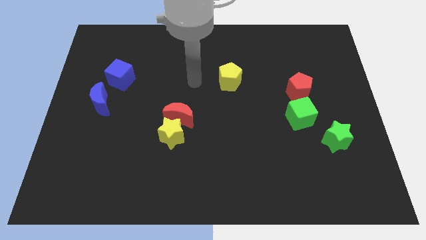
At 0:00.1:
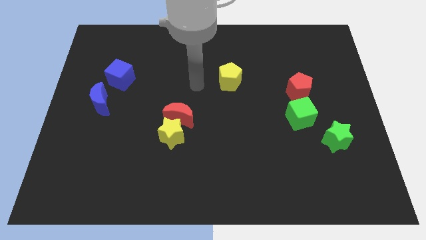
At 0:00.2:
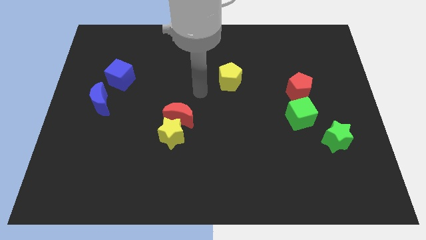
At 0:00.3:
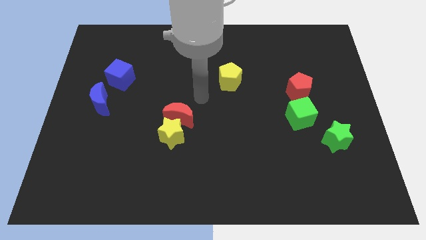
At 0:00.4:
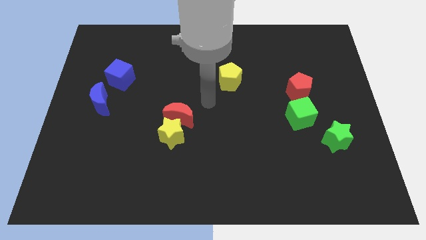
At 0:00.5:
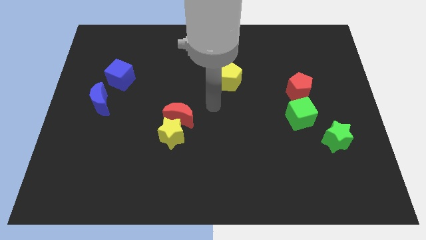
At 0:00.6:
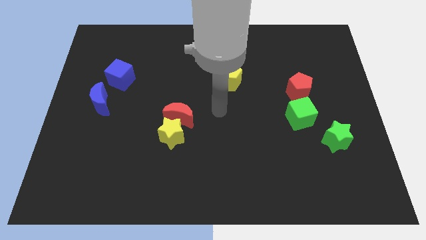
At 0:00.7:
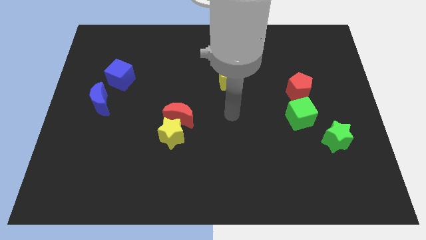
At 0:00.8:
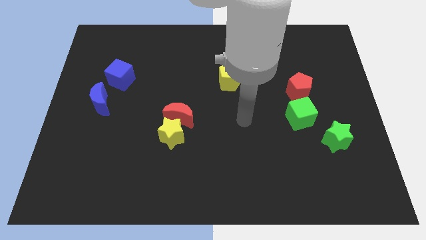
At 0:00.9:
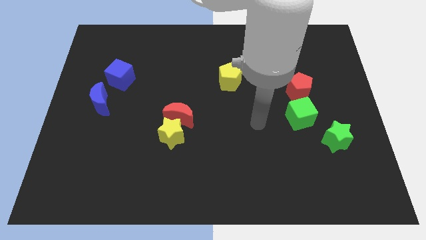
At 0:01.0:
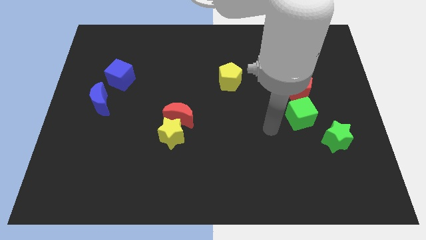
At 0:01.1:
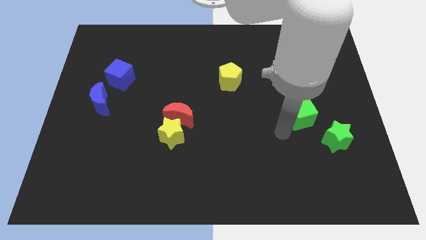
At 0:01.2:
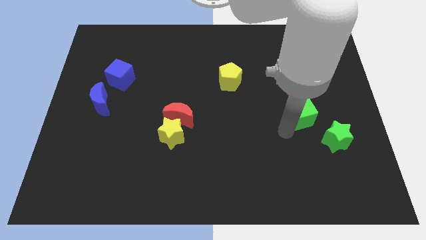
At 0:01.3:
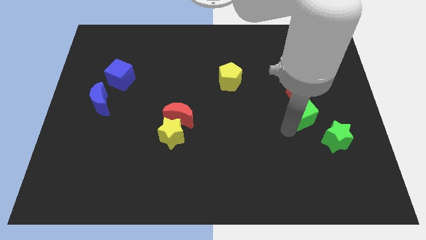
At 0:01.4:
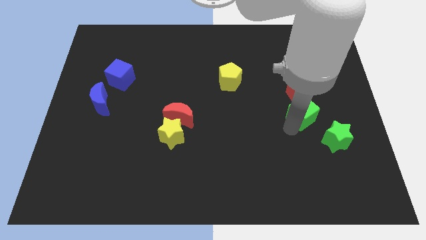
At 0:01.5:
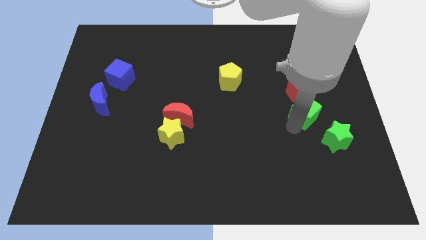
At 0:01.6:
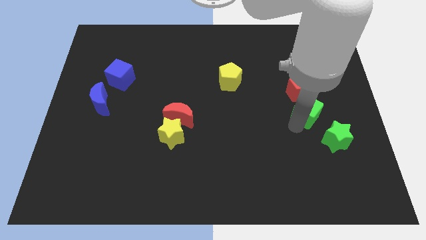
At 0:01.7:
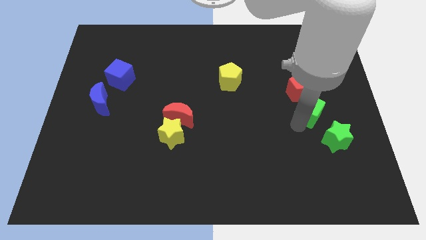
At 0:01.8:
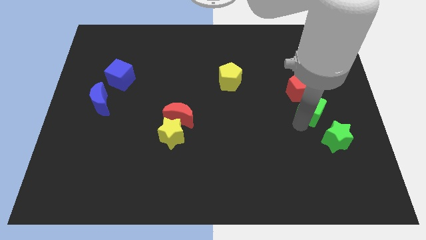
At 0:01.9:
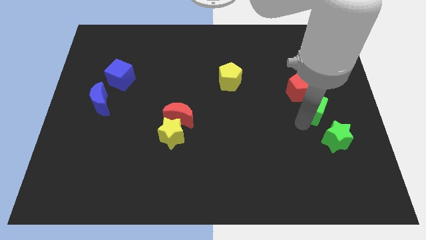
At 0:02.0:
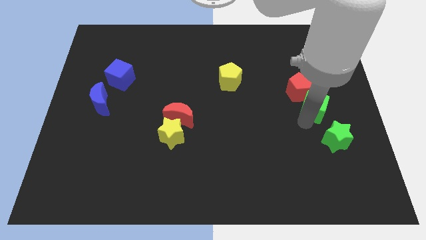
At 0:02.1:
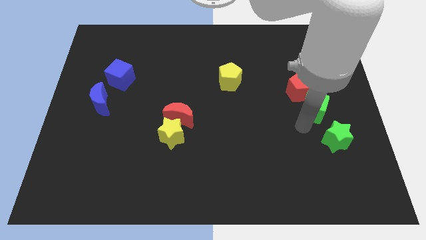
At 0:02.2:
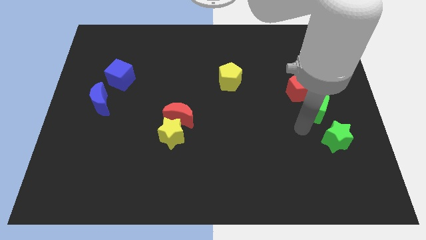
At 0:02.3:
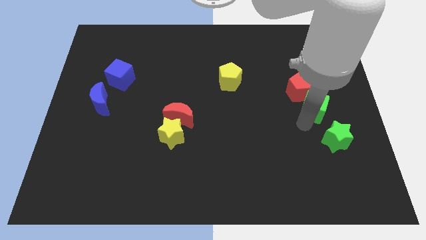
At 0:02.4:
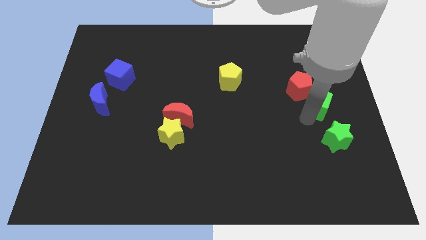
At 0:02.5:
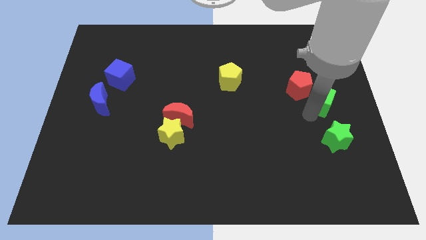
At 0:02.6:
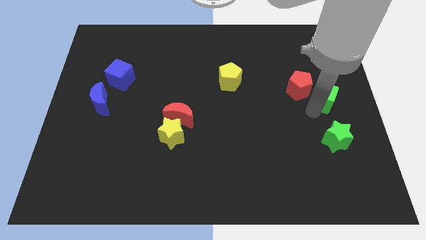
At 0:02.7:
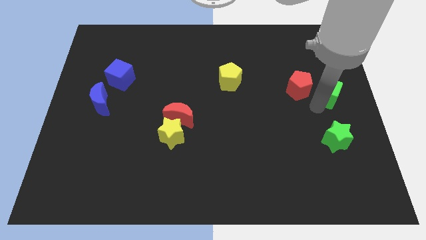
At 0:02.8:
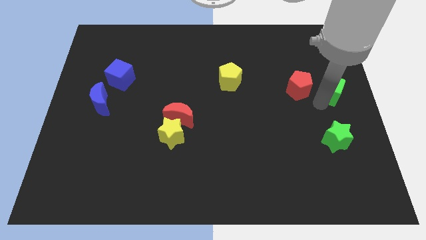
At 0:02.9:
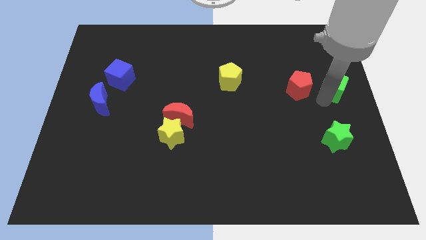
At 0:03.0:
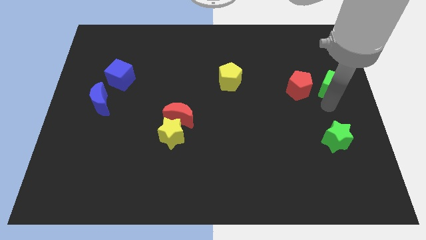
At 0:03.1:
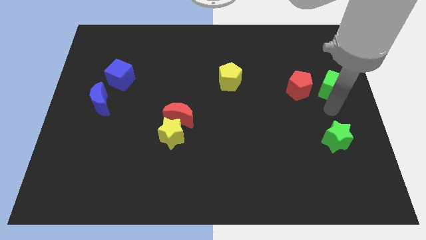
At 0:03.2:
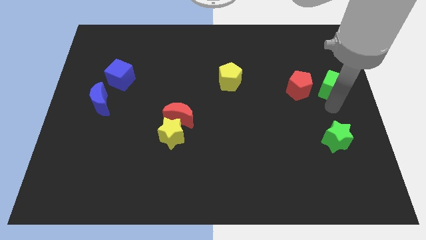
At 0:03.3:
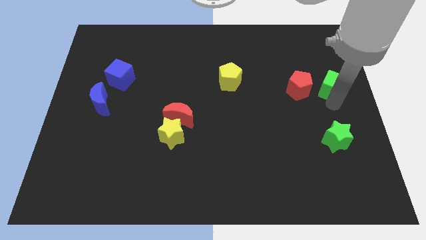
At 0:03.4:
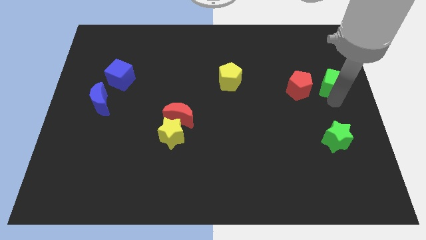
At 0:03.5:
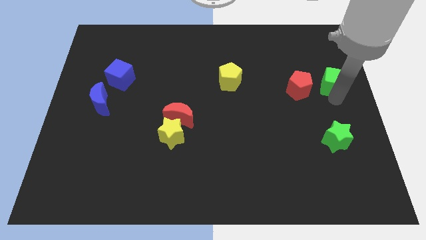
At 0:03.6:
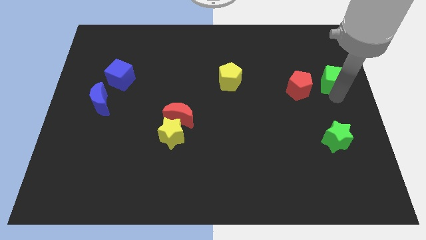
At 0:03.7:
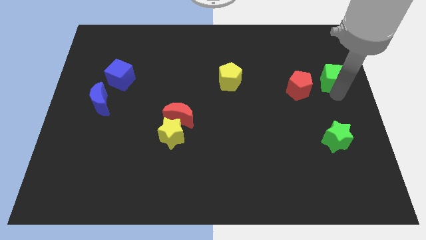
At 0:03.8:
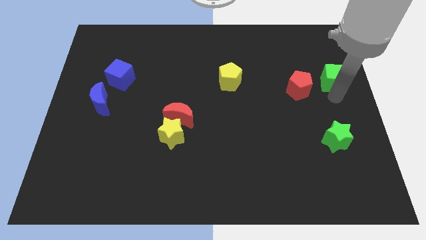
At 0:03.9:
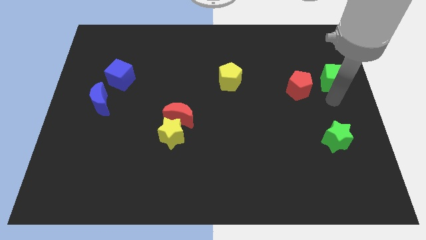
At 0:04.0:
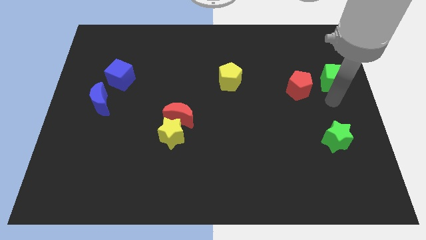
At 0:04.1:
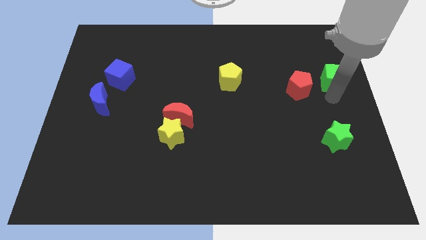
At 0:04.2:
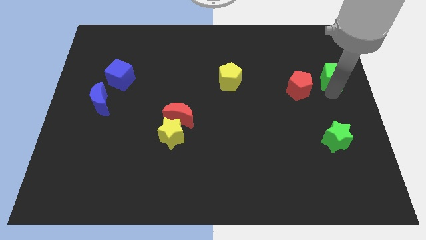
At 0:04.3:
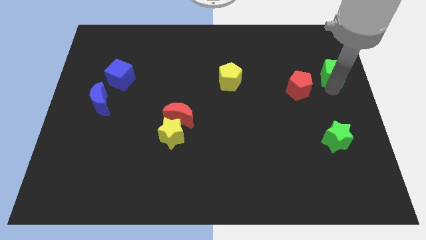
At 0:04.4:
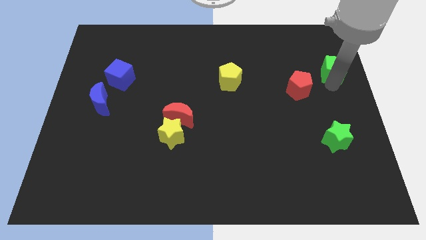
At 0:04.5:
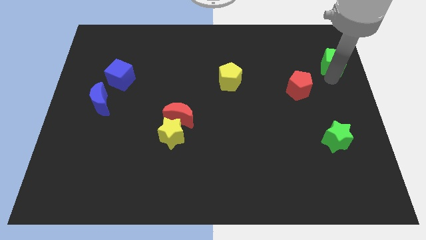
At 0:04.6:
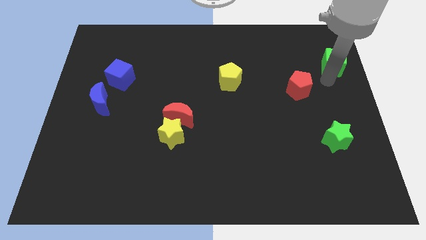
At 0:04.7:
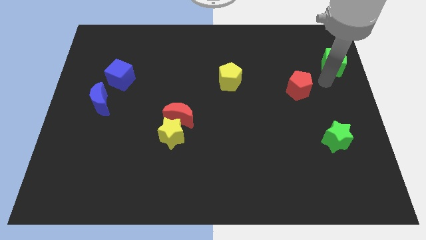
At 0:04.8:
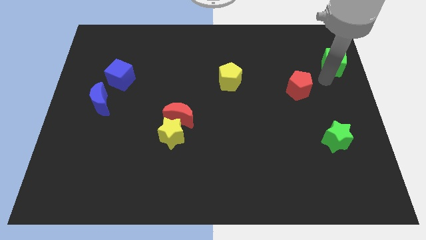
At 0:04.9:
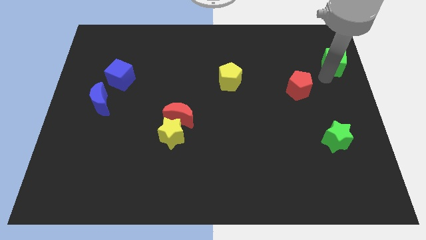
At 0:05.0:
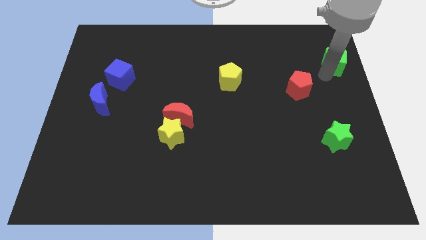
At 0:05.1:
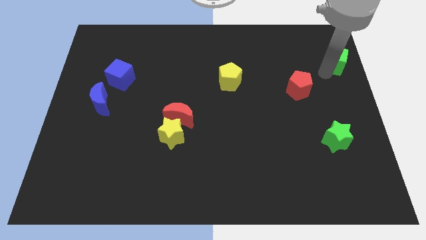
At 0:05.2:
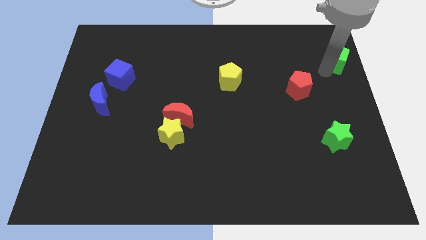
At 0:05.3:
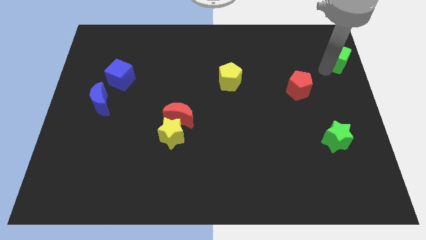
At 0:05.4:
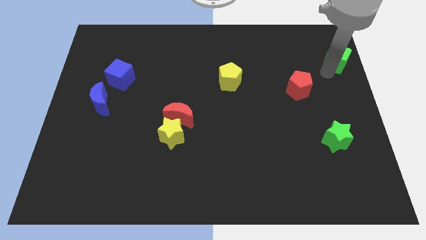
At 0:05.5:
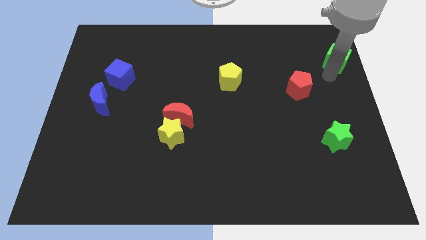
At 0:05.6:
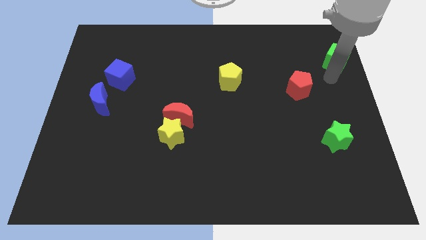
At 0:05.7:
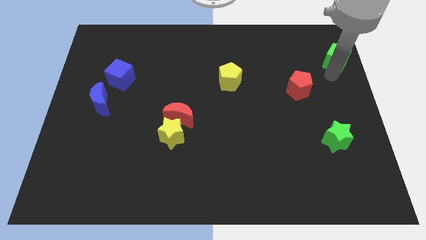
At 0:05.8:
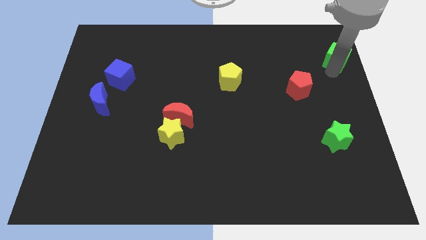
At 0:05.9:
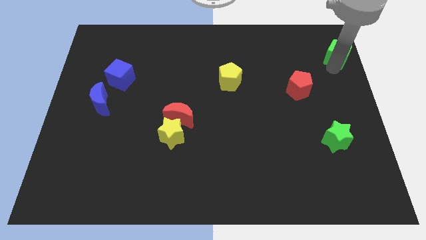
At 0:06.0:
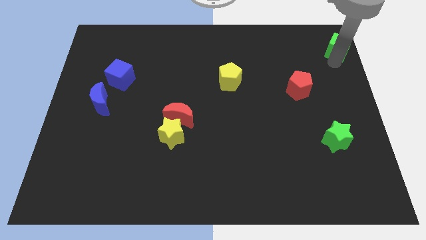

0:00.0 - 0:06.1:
move the green cube to the upper right corner

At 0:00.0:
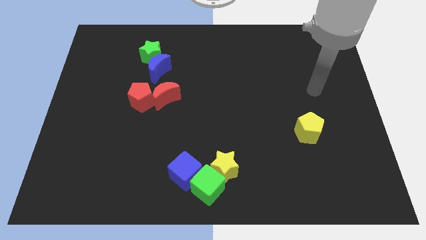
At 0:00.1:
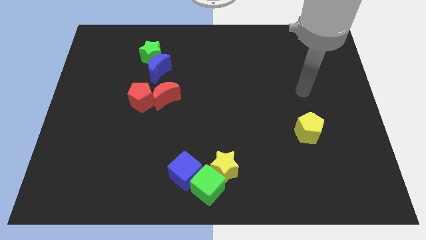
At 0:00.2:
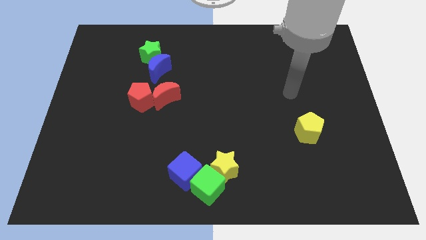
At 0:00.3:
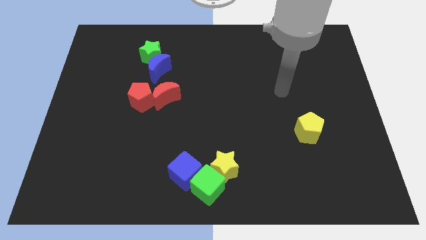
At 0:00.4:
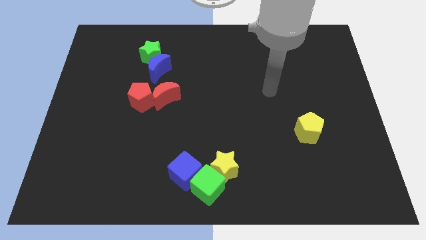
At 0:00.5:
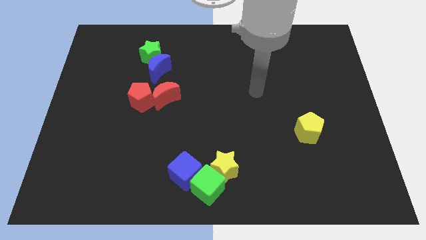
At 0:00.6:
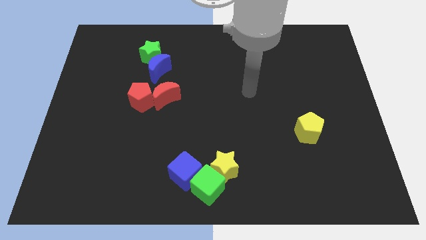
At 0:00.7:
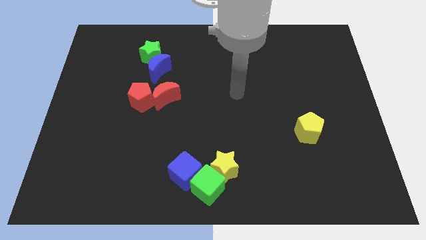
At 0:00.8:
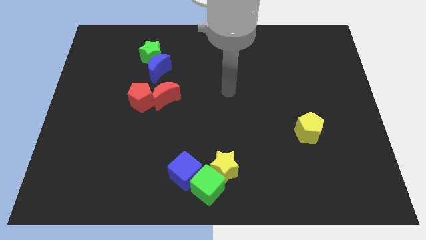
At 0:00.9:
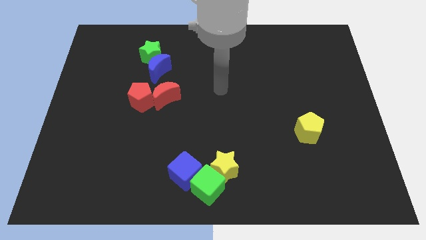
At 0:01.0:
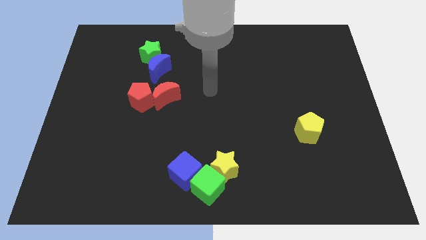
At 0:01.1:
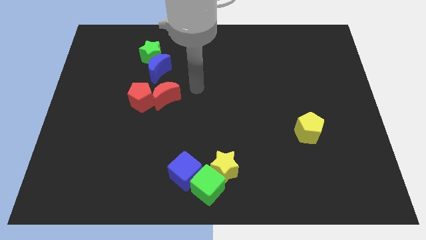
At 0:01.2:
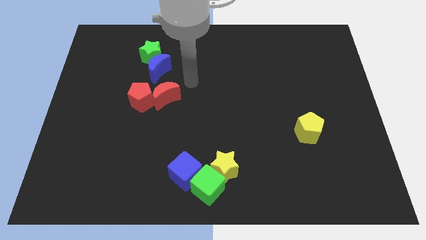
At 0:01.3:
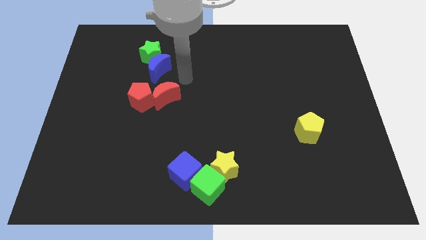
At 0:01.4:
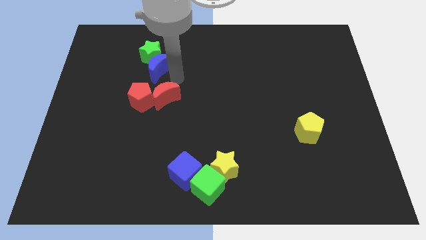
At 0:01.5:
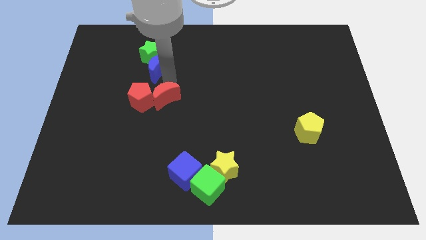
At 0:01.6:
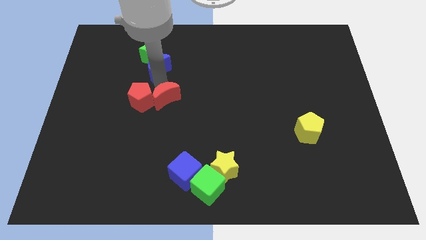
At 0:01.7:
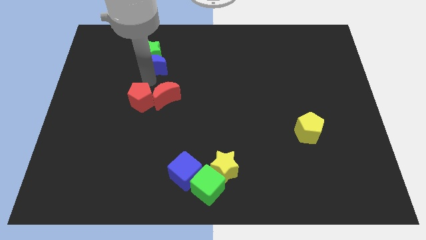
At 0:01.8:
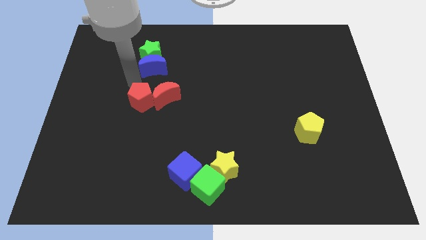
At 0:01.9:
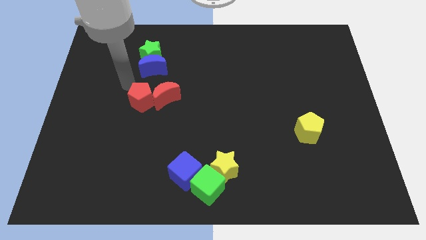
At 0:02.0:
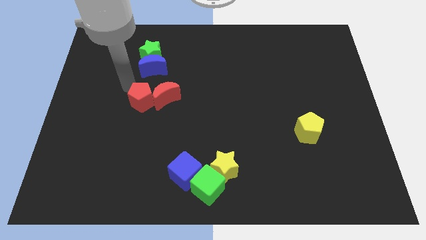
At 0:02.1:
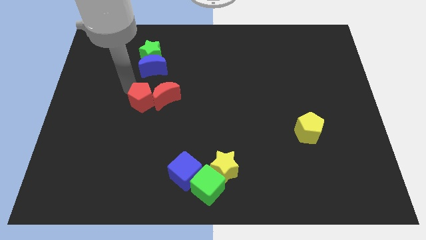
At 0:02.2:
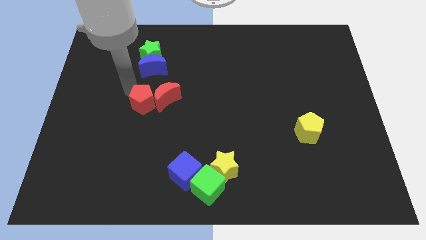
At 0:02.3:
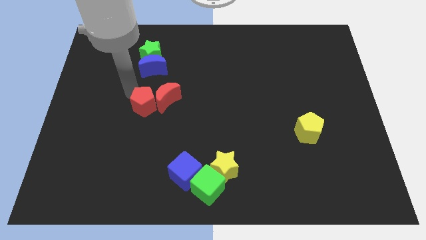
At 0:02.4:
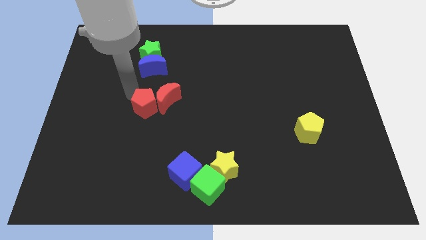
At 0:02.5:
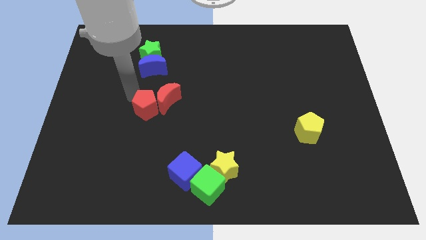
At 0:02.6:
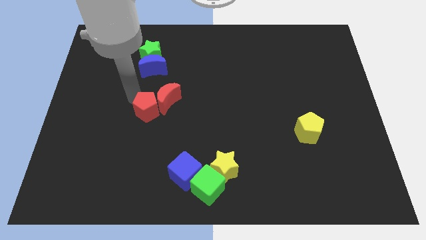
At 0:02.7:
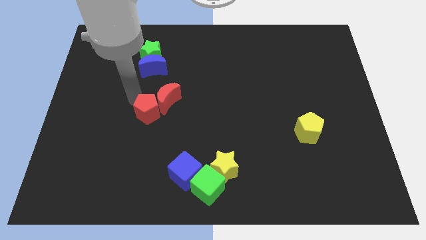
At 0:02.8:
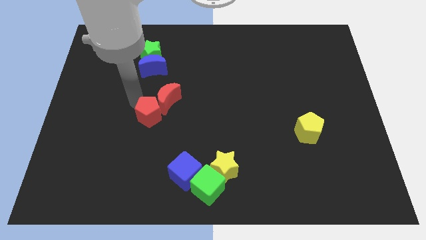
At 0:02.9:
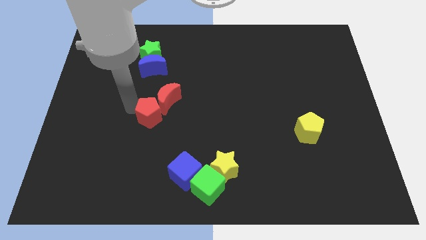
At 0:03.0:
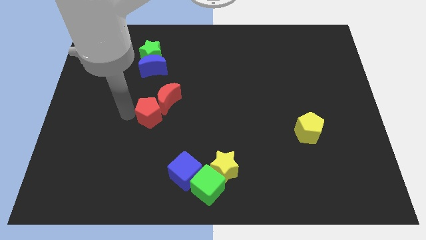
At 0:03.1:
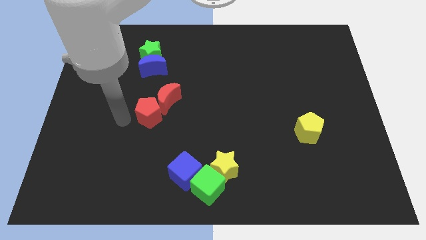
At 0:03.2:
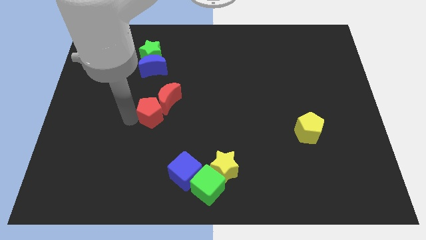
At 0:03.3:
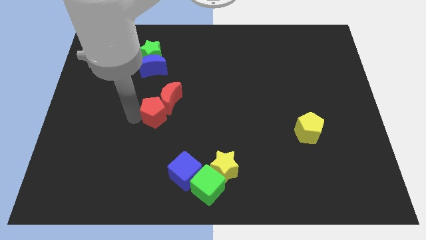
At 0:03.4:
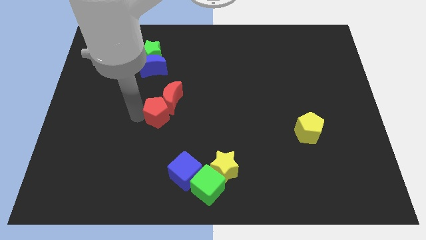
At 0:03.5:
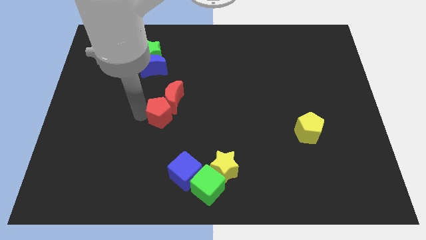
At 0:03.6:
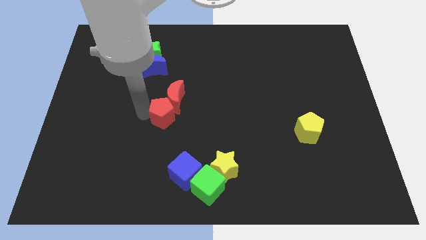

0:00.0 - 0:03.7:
put the red pentagon to the center of the board
